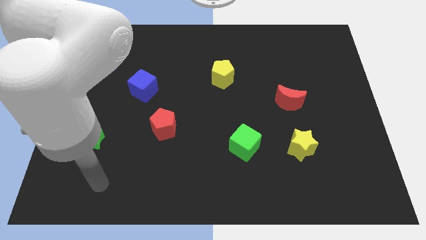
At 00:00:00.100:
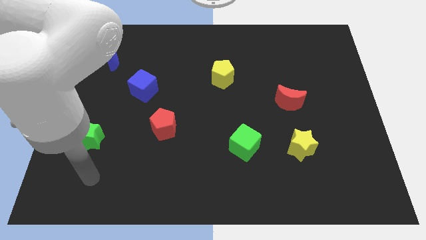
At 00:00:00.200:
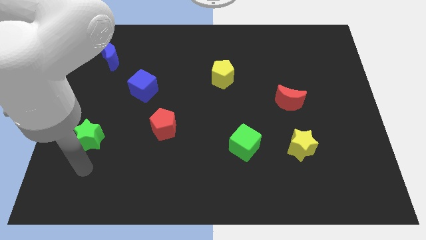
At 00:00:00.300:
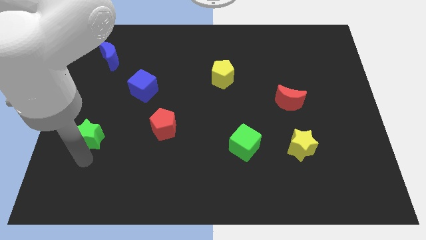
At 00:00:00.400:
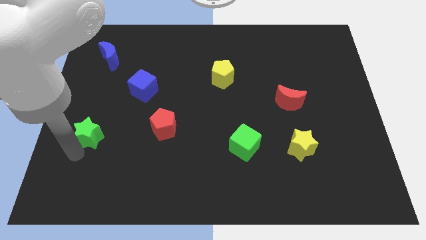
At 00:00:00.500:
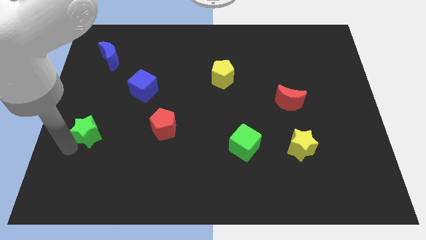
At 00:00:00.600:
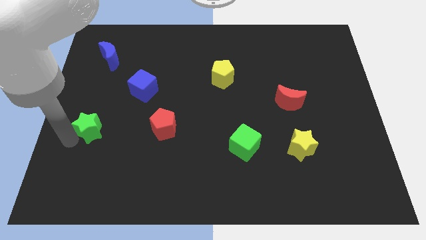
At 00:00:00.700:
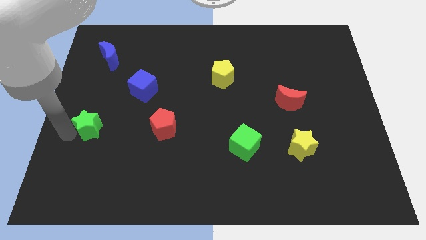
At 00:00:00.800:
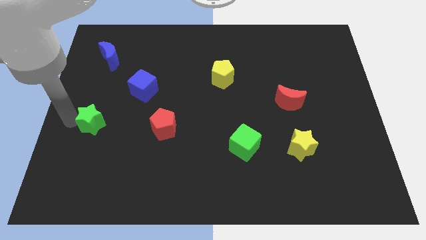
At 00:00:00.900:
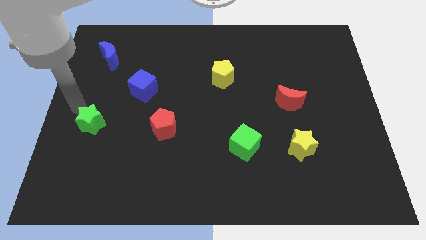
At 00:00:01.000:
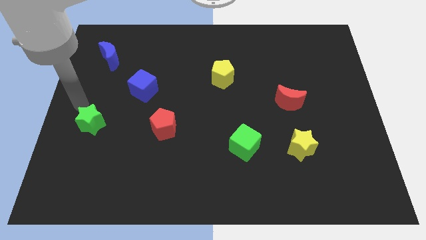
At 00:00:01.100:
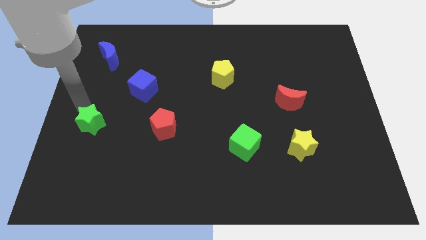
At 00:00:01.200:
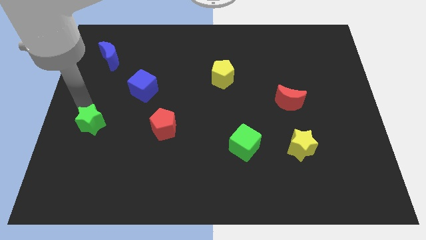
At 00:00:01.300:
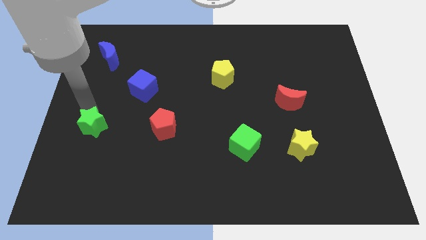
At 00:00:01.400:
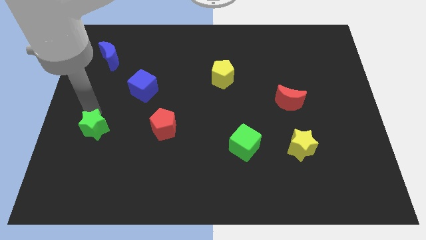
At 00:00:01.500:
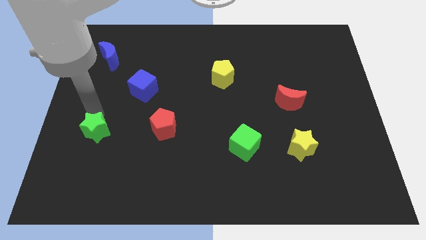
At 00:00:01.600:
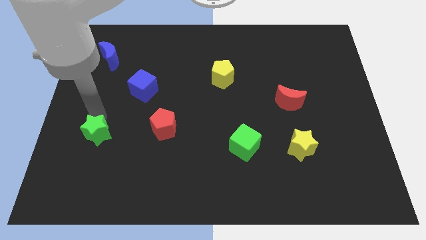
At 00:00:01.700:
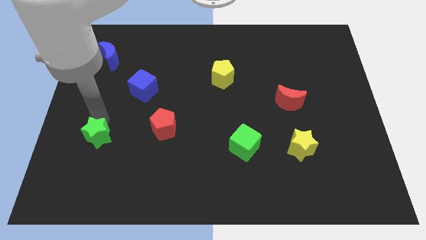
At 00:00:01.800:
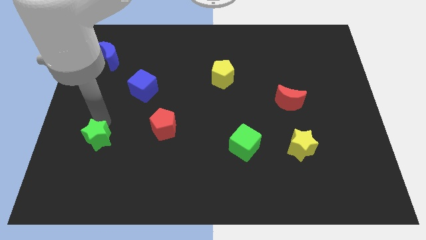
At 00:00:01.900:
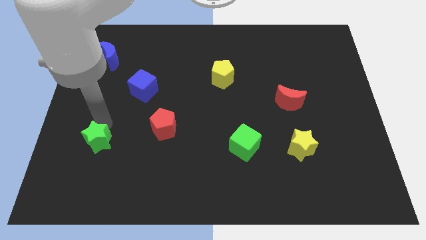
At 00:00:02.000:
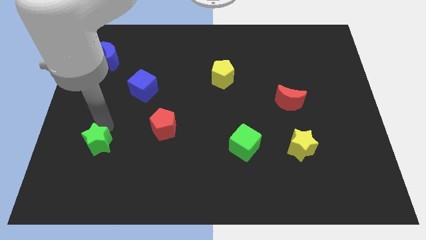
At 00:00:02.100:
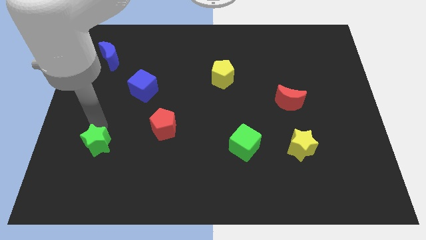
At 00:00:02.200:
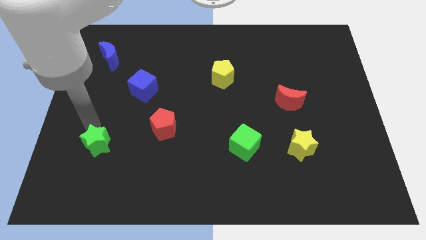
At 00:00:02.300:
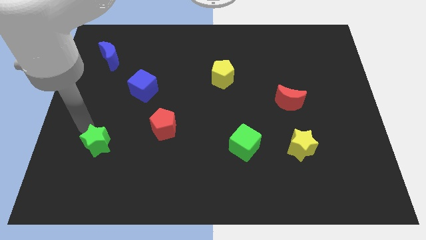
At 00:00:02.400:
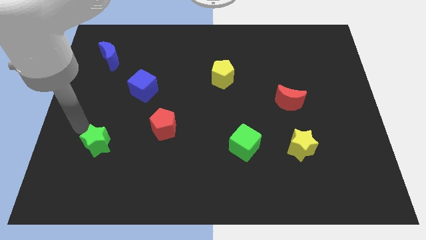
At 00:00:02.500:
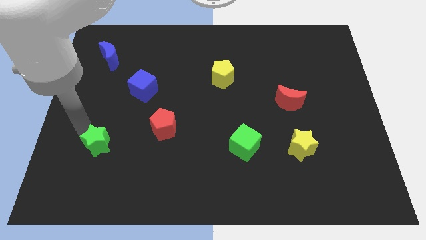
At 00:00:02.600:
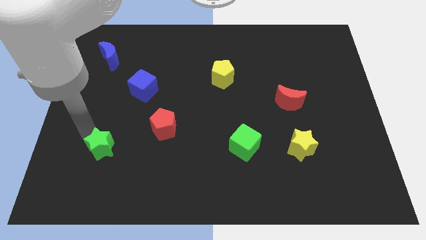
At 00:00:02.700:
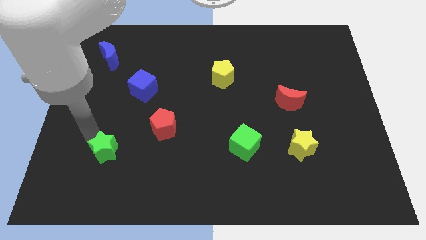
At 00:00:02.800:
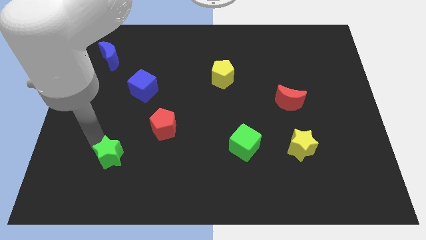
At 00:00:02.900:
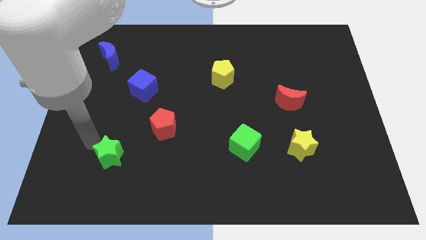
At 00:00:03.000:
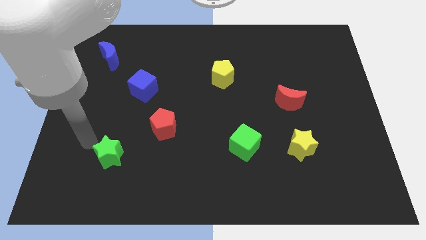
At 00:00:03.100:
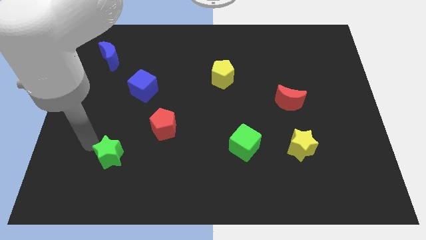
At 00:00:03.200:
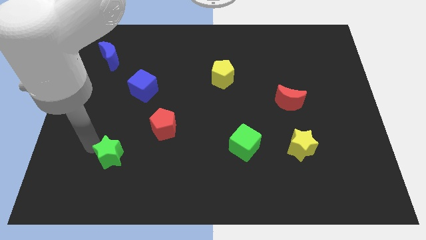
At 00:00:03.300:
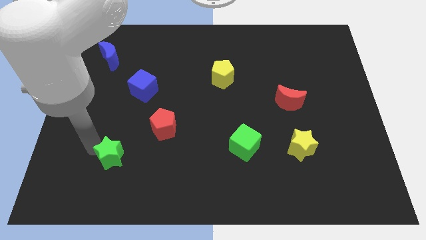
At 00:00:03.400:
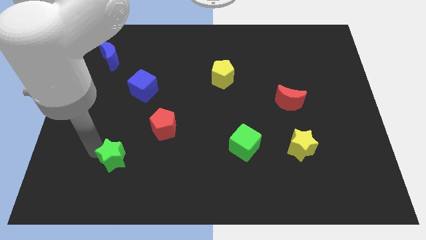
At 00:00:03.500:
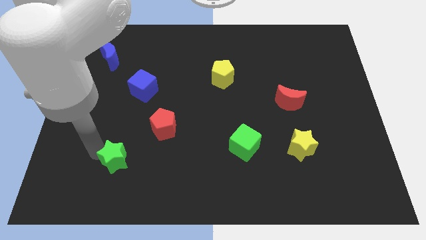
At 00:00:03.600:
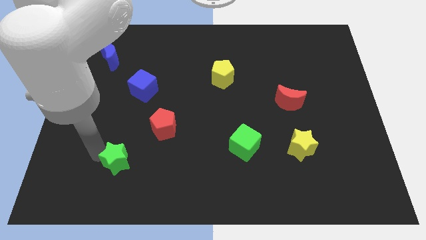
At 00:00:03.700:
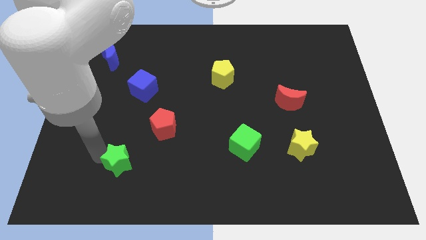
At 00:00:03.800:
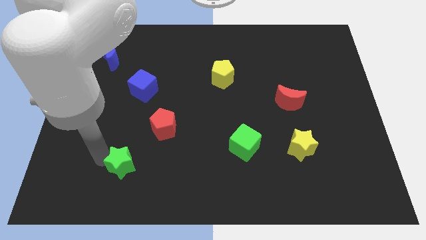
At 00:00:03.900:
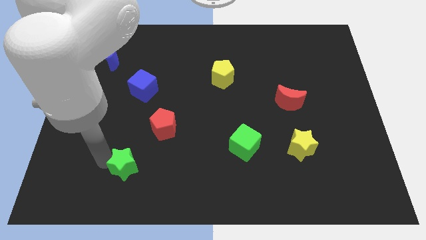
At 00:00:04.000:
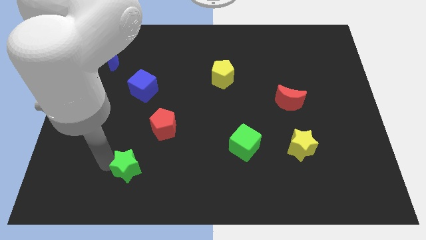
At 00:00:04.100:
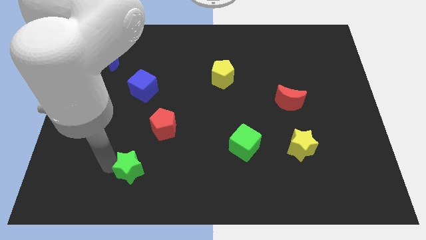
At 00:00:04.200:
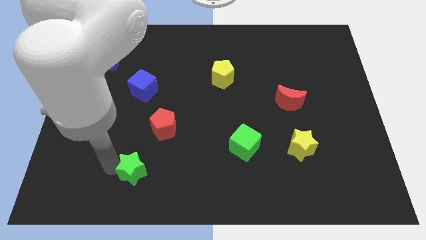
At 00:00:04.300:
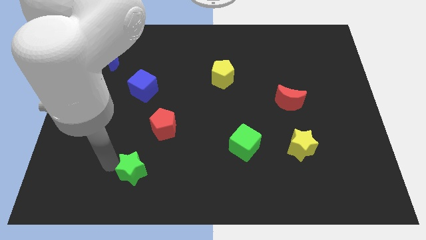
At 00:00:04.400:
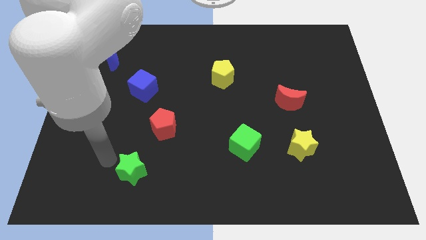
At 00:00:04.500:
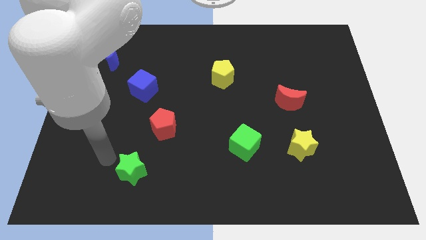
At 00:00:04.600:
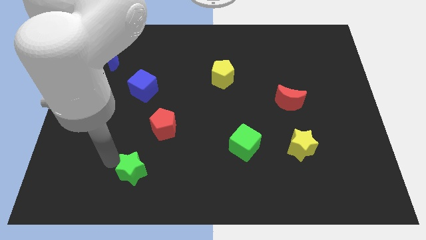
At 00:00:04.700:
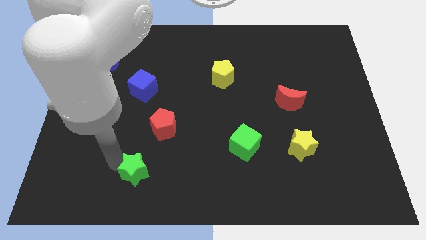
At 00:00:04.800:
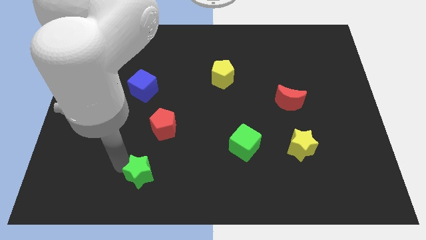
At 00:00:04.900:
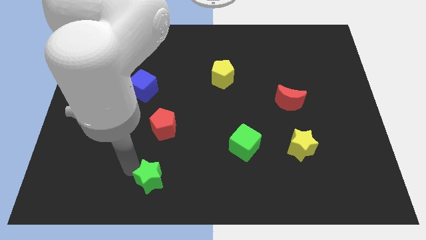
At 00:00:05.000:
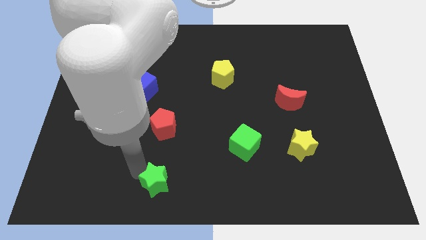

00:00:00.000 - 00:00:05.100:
move the green star to the bottom

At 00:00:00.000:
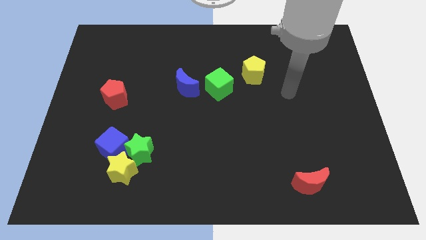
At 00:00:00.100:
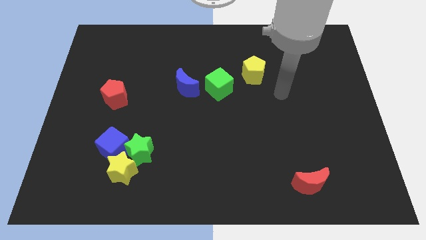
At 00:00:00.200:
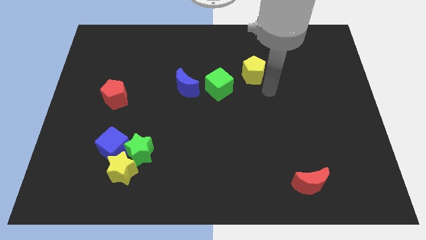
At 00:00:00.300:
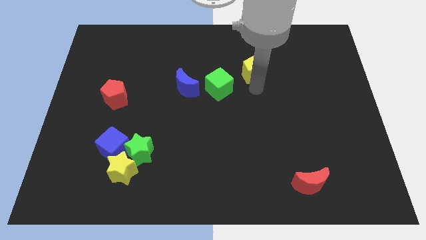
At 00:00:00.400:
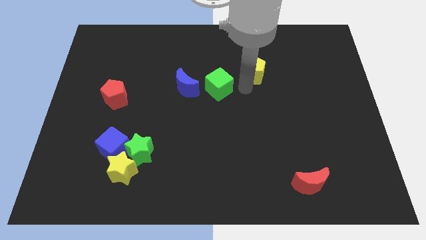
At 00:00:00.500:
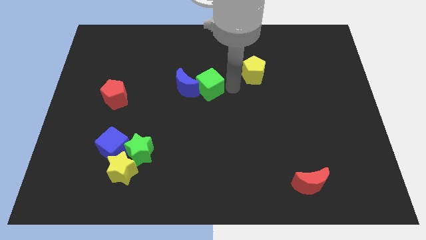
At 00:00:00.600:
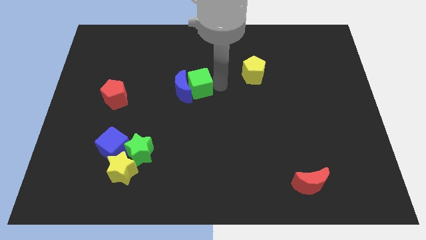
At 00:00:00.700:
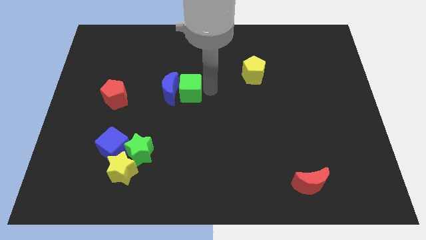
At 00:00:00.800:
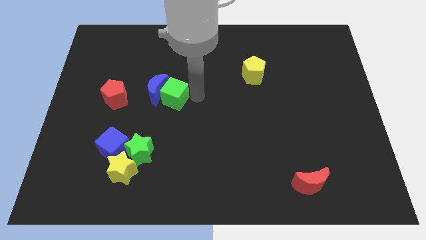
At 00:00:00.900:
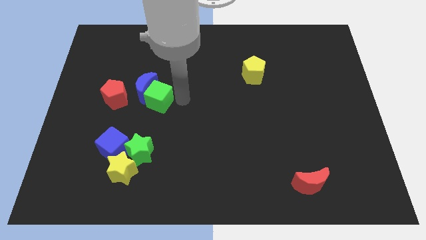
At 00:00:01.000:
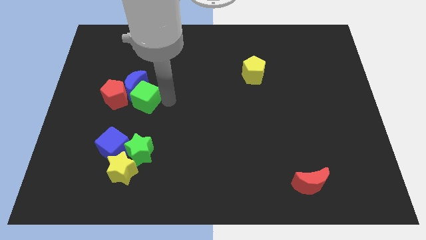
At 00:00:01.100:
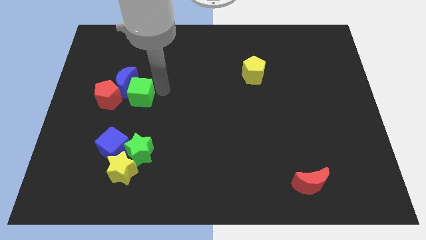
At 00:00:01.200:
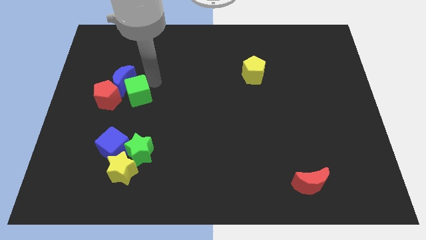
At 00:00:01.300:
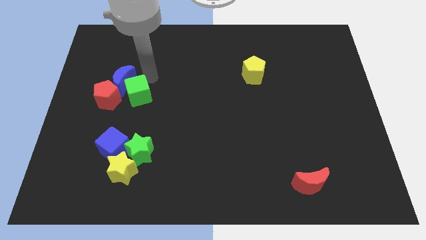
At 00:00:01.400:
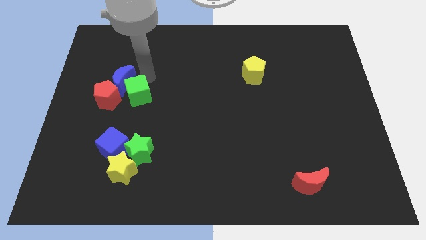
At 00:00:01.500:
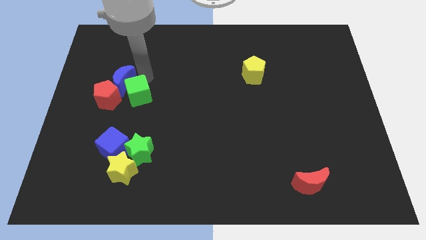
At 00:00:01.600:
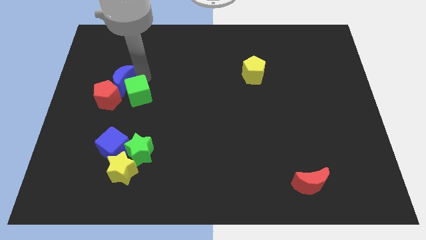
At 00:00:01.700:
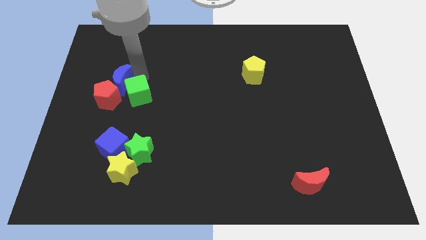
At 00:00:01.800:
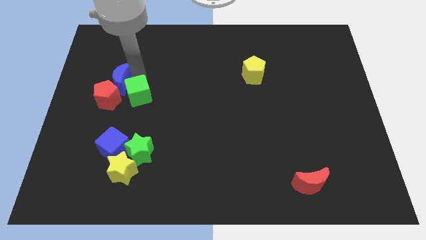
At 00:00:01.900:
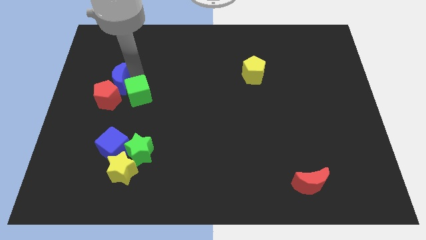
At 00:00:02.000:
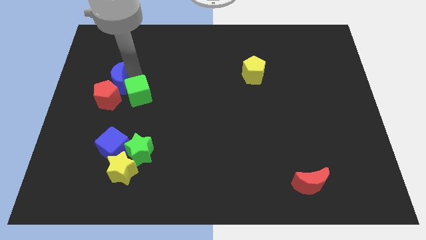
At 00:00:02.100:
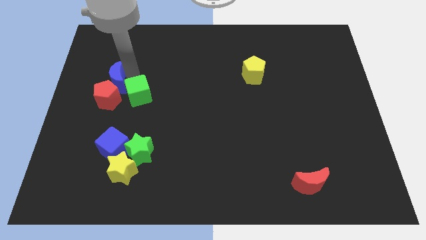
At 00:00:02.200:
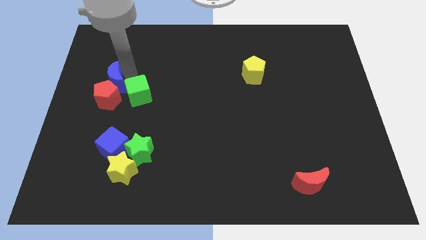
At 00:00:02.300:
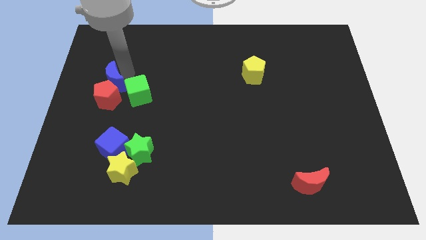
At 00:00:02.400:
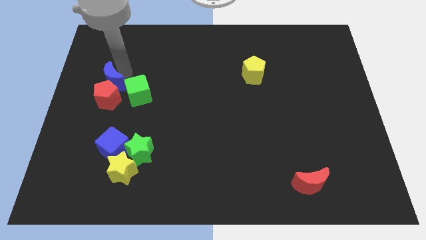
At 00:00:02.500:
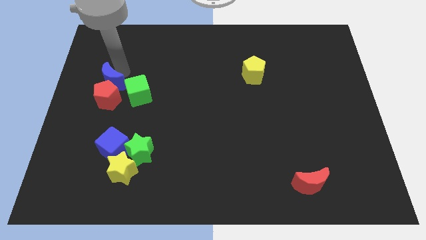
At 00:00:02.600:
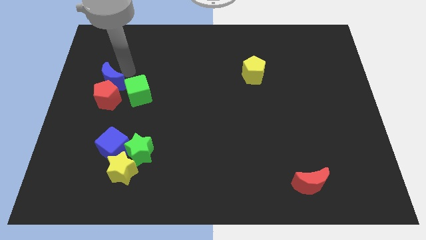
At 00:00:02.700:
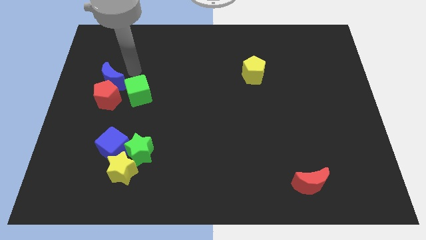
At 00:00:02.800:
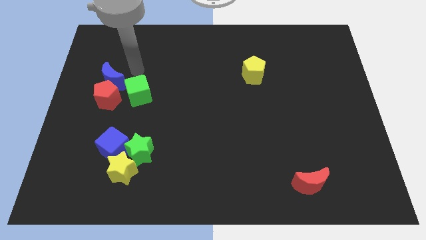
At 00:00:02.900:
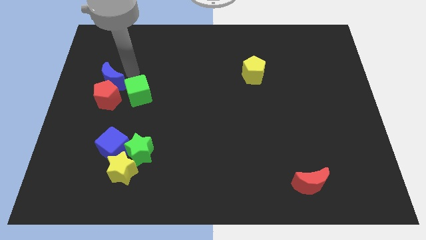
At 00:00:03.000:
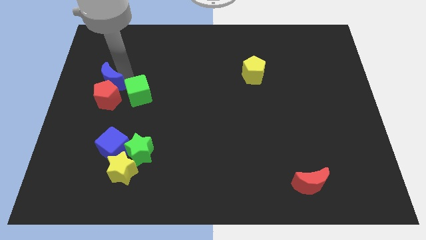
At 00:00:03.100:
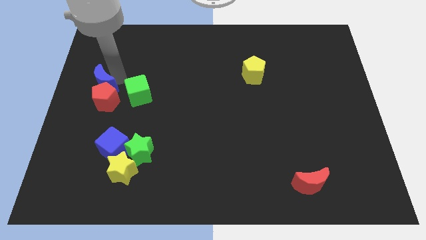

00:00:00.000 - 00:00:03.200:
put the blue moon to the center left
